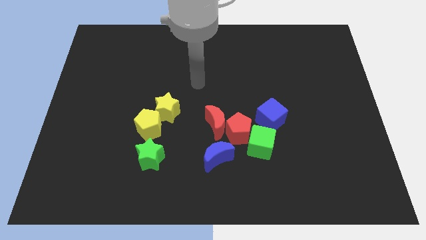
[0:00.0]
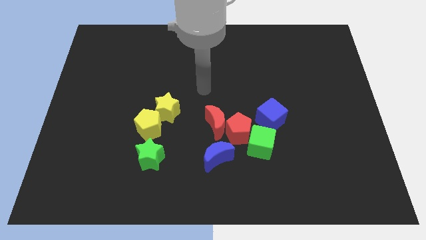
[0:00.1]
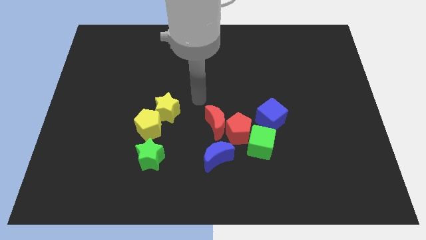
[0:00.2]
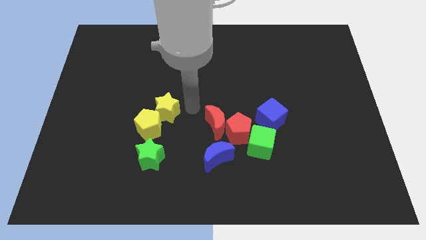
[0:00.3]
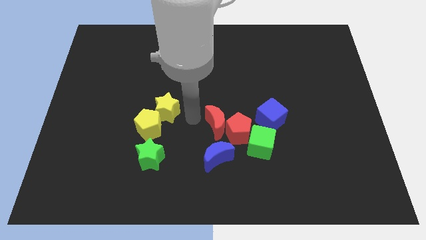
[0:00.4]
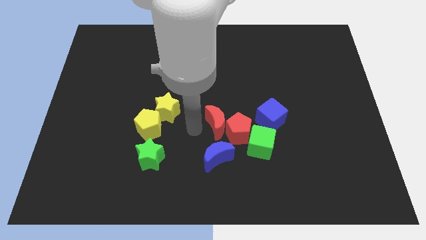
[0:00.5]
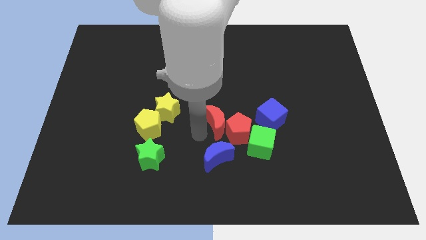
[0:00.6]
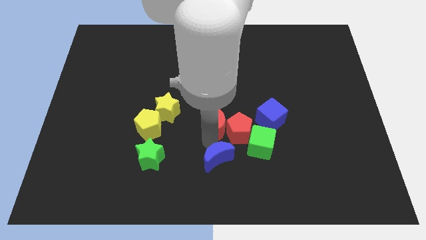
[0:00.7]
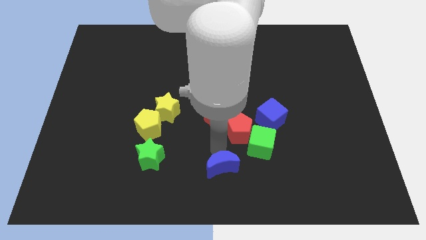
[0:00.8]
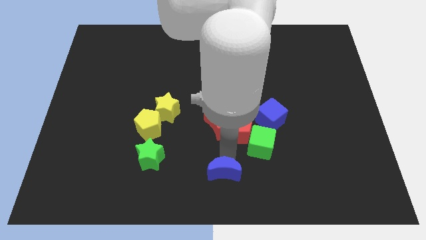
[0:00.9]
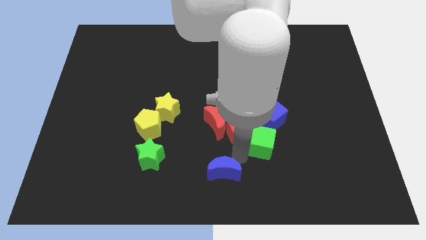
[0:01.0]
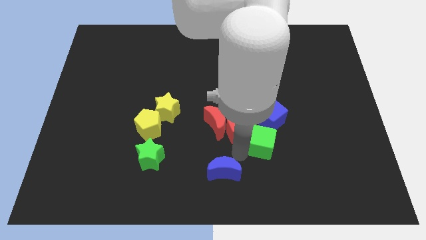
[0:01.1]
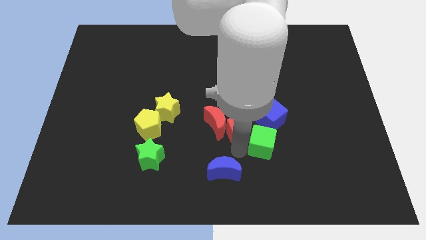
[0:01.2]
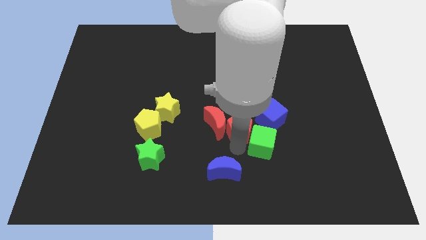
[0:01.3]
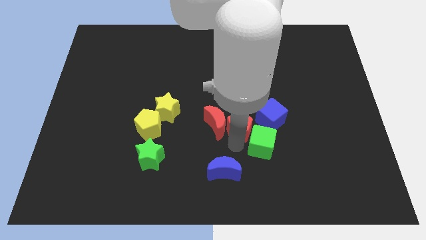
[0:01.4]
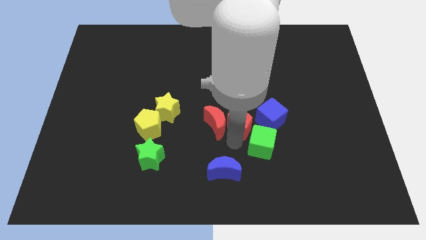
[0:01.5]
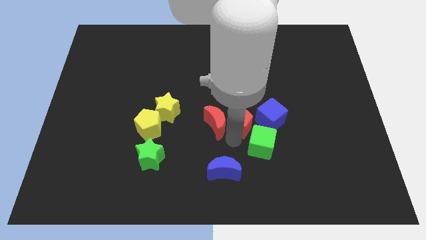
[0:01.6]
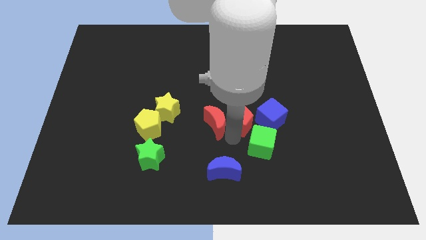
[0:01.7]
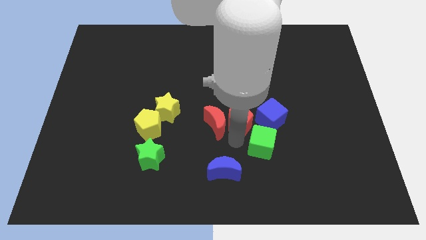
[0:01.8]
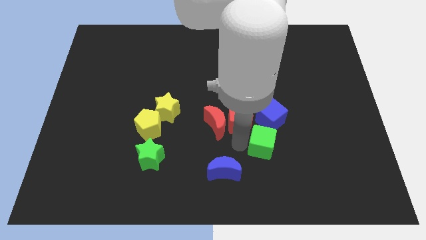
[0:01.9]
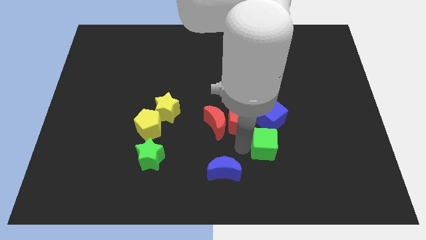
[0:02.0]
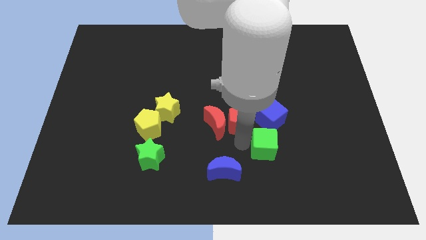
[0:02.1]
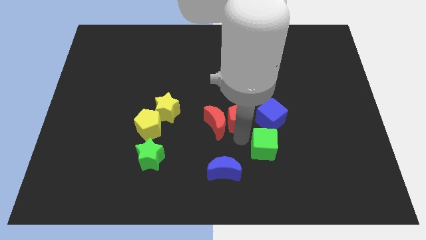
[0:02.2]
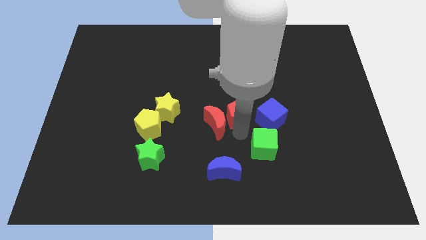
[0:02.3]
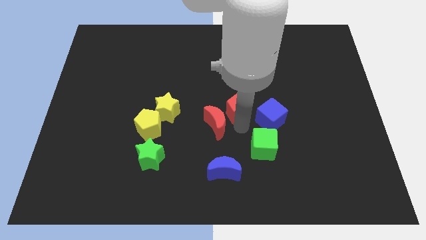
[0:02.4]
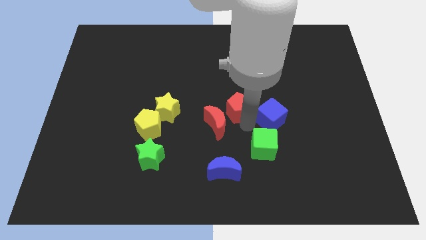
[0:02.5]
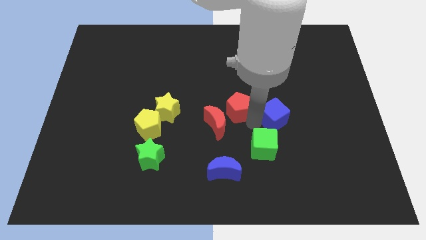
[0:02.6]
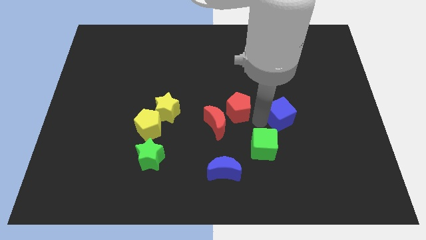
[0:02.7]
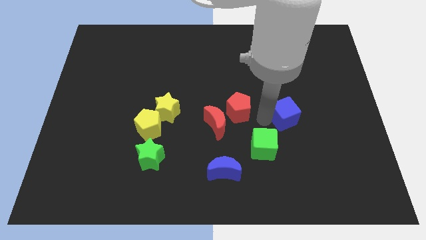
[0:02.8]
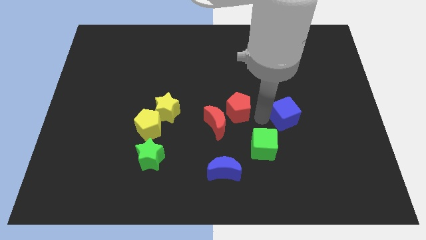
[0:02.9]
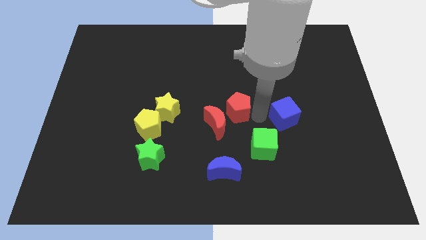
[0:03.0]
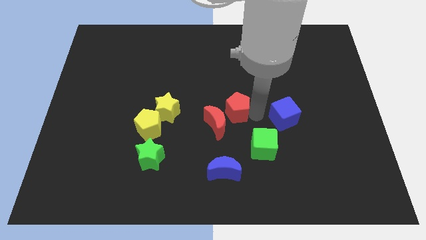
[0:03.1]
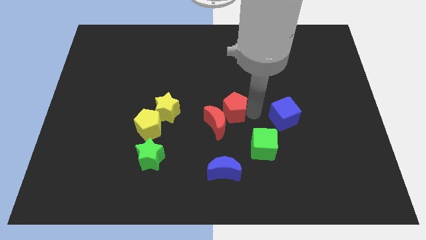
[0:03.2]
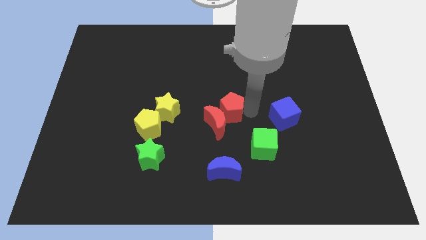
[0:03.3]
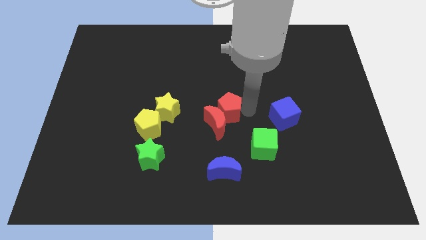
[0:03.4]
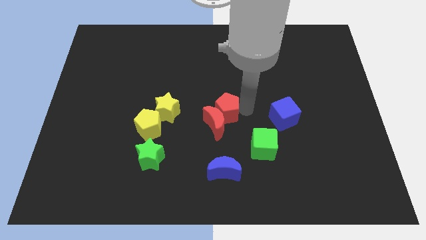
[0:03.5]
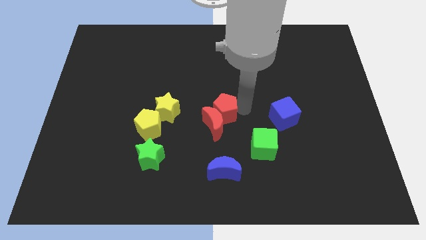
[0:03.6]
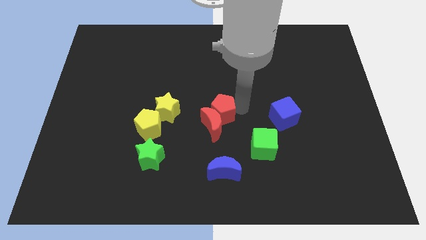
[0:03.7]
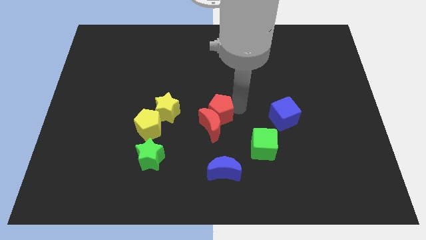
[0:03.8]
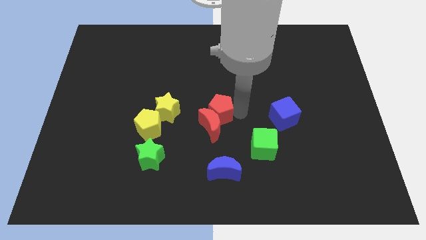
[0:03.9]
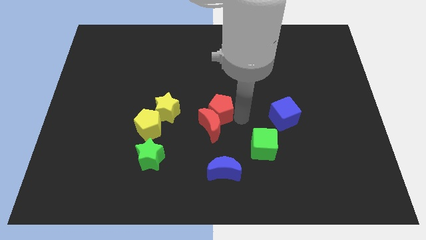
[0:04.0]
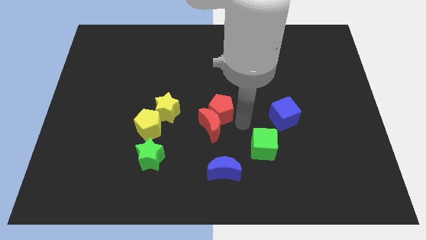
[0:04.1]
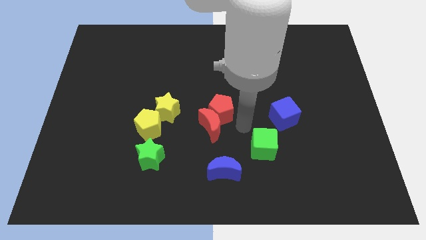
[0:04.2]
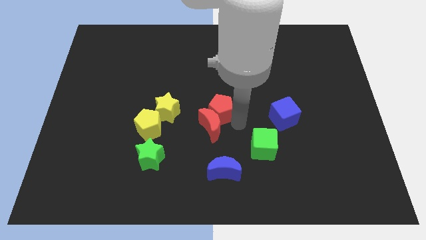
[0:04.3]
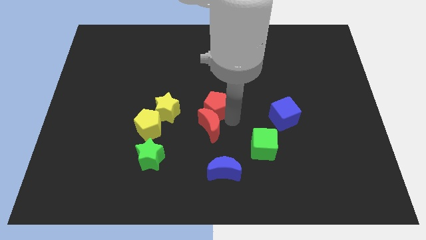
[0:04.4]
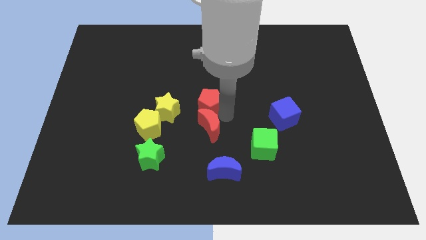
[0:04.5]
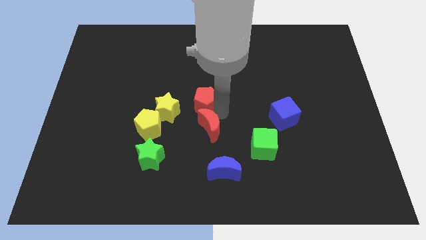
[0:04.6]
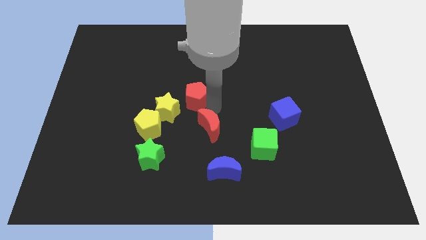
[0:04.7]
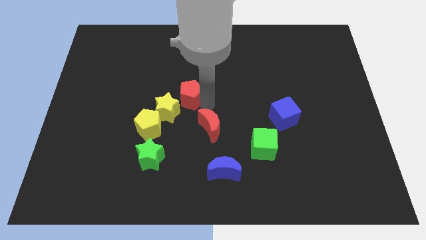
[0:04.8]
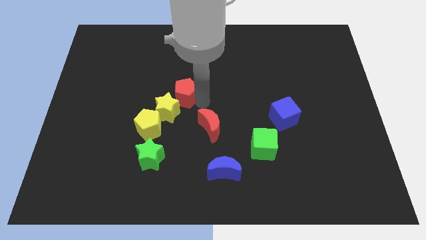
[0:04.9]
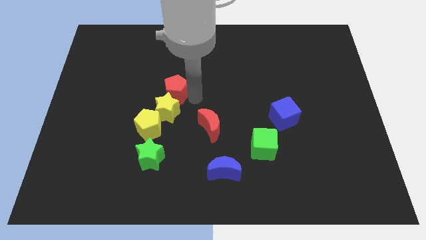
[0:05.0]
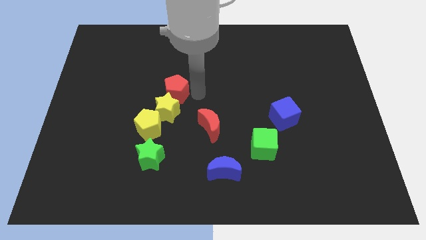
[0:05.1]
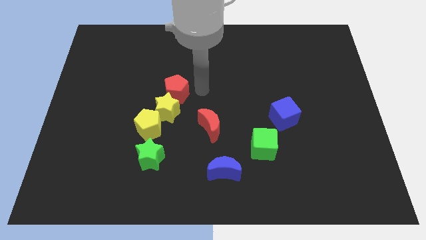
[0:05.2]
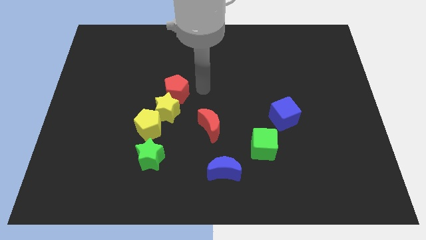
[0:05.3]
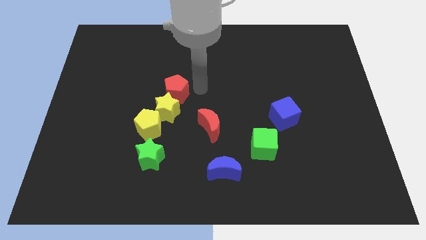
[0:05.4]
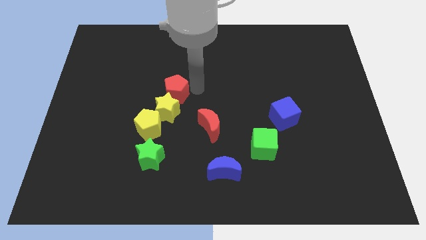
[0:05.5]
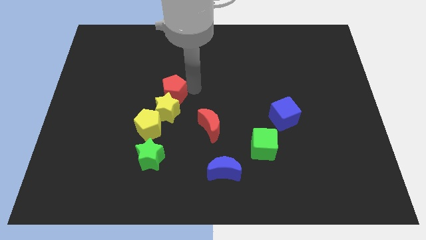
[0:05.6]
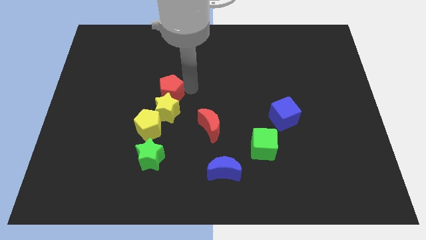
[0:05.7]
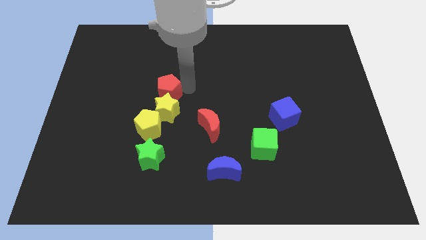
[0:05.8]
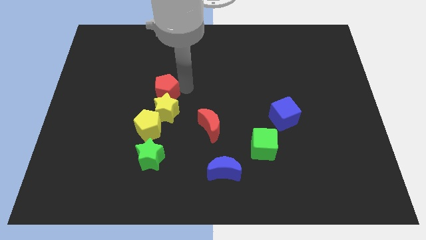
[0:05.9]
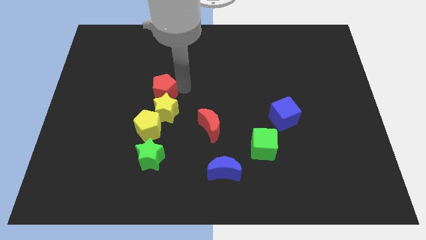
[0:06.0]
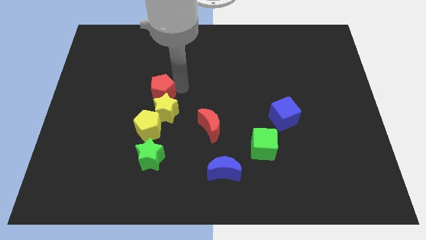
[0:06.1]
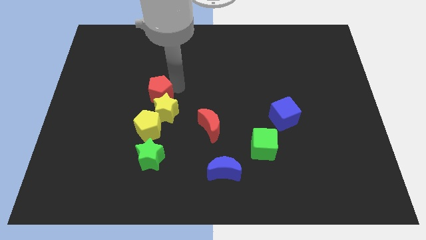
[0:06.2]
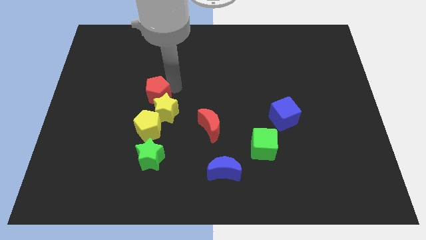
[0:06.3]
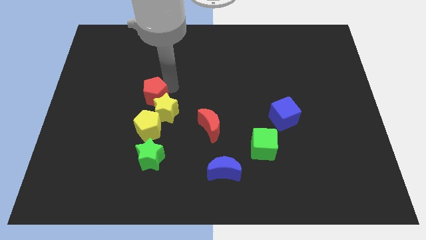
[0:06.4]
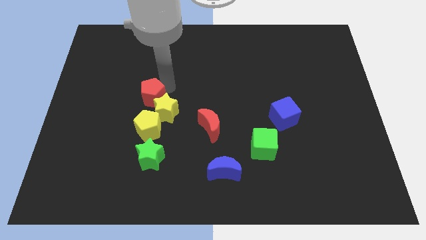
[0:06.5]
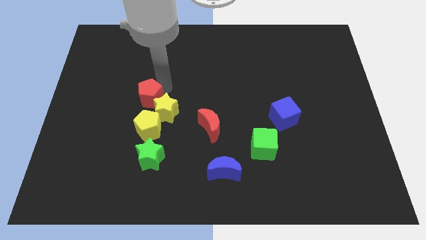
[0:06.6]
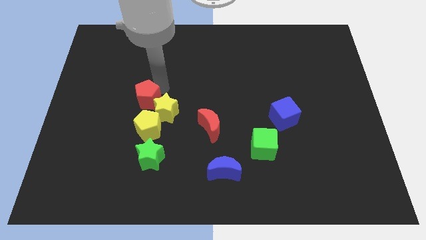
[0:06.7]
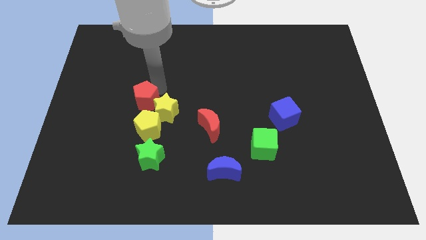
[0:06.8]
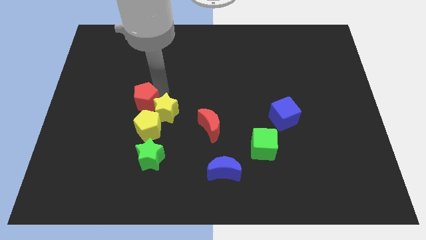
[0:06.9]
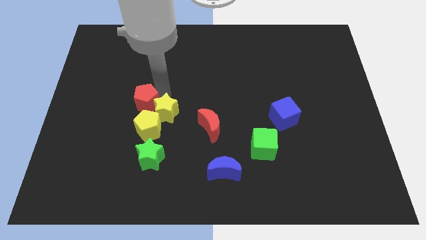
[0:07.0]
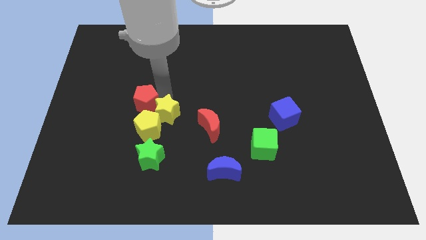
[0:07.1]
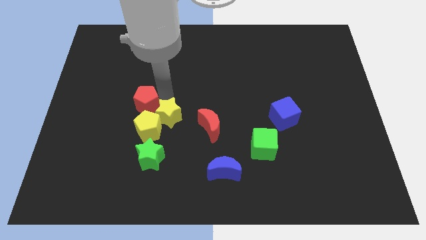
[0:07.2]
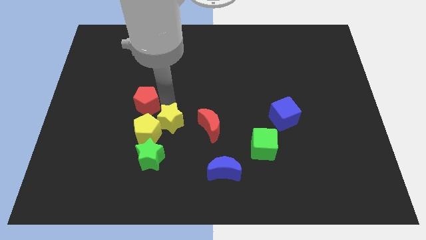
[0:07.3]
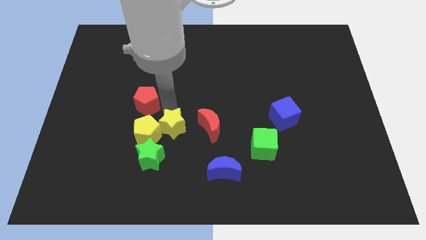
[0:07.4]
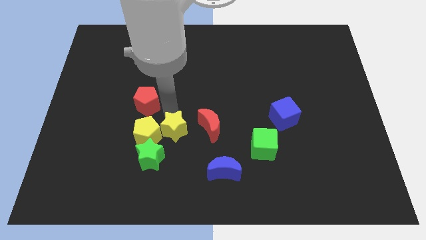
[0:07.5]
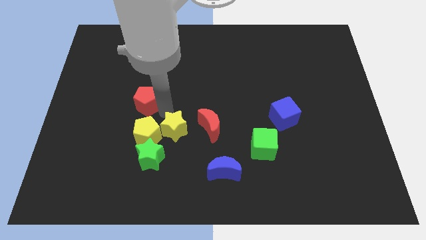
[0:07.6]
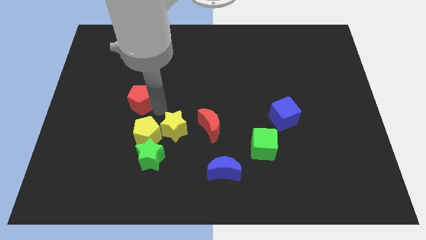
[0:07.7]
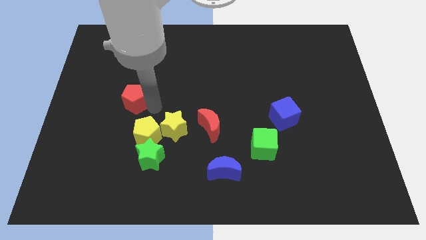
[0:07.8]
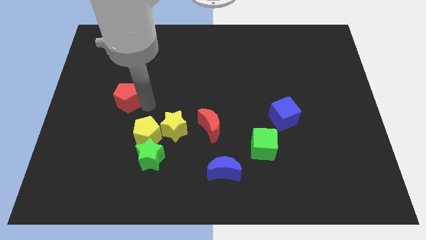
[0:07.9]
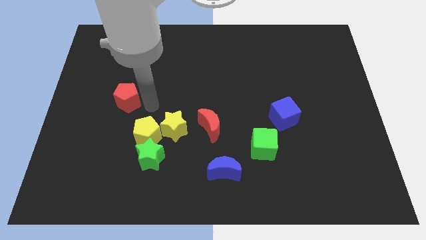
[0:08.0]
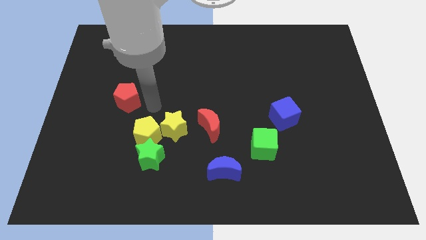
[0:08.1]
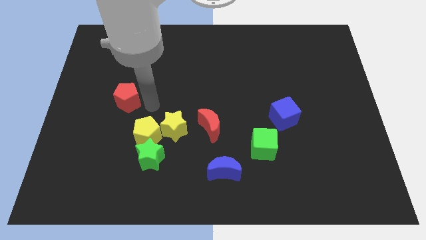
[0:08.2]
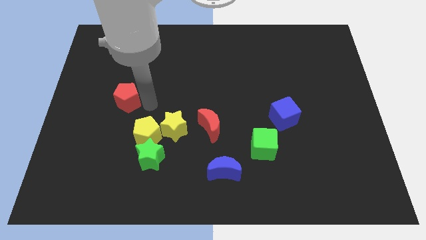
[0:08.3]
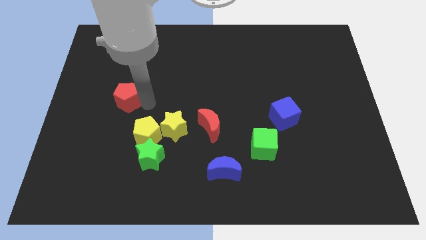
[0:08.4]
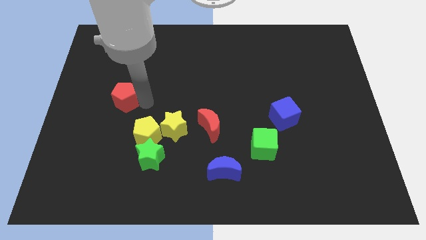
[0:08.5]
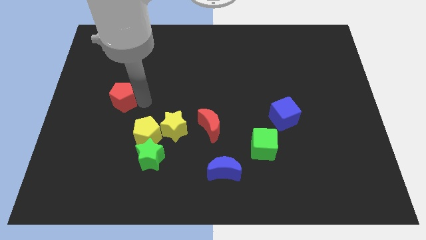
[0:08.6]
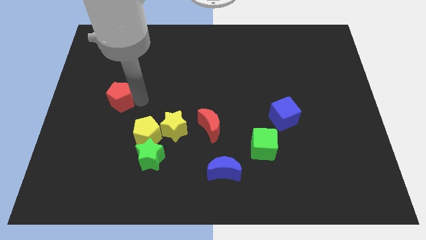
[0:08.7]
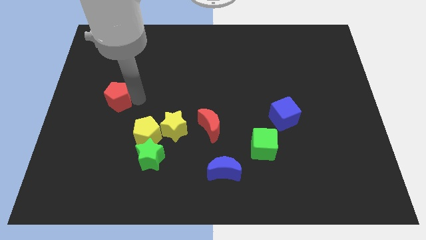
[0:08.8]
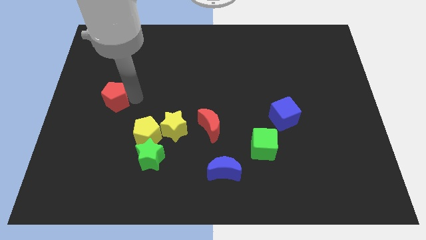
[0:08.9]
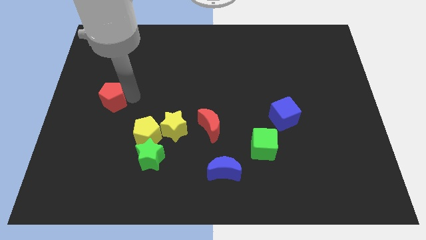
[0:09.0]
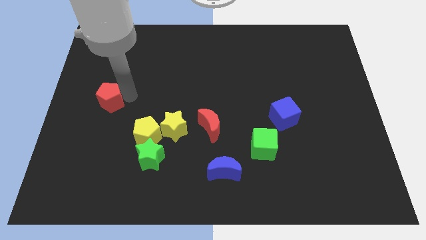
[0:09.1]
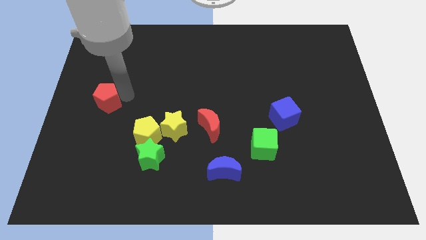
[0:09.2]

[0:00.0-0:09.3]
move the red pentagon to the left side of the board
